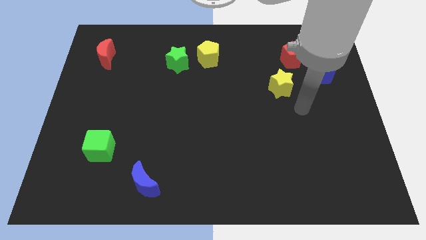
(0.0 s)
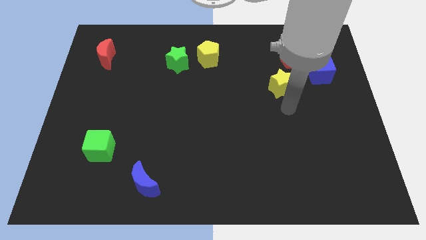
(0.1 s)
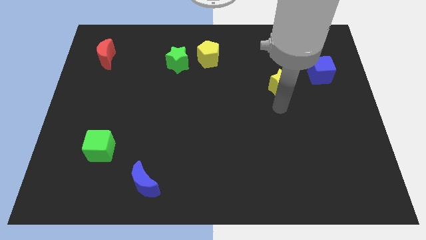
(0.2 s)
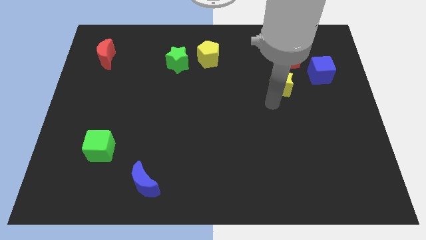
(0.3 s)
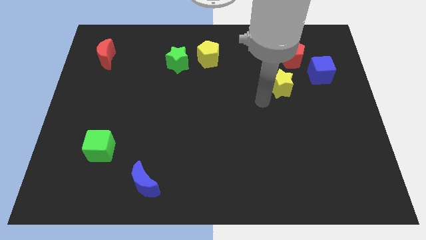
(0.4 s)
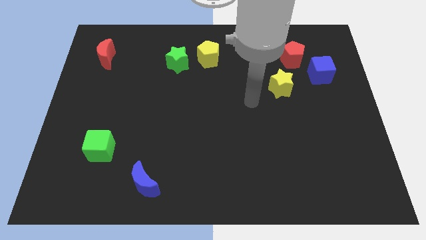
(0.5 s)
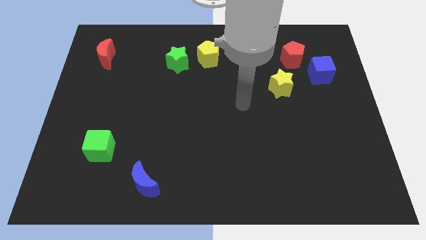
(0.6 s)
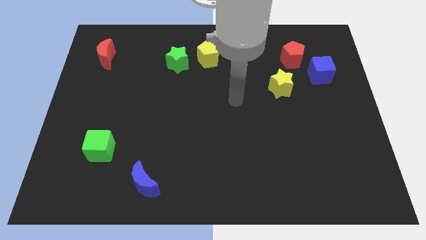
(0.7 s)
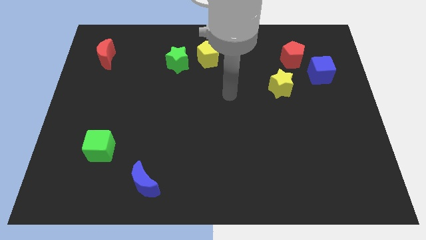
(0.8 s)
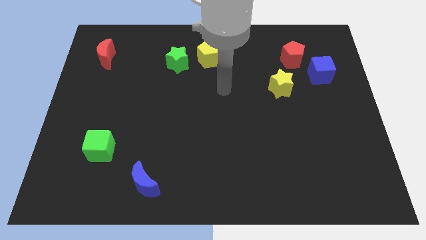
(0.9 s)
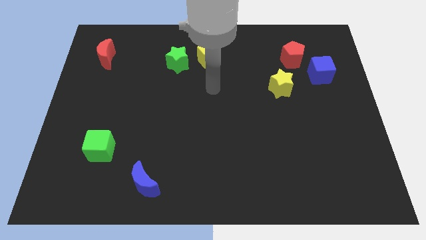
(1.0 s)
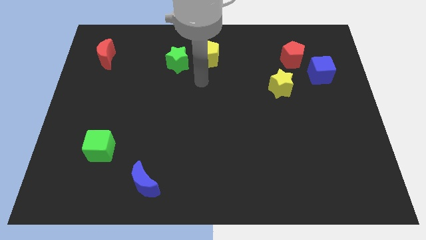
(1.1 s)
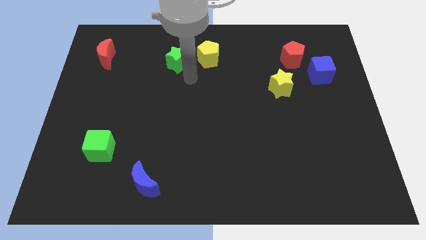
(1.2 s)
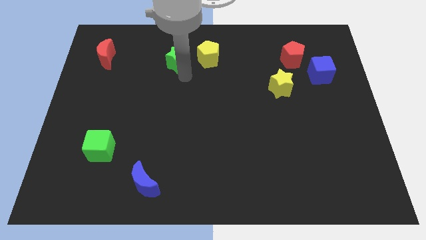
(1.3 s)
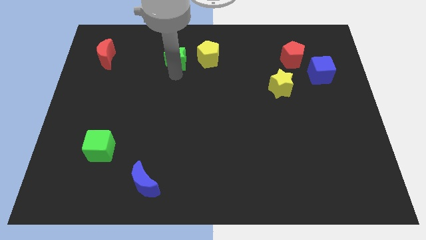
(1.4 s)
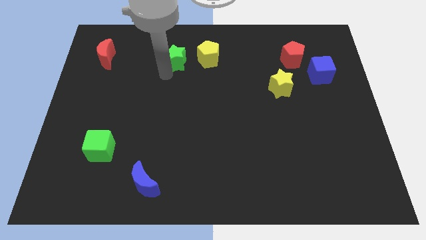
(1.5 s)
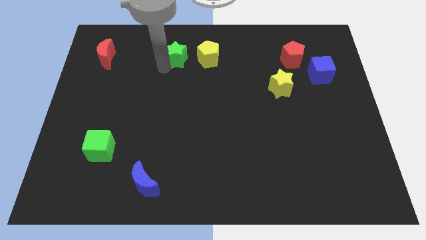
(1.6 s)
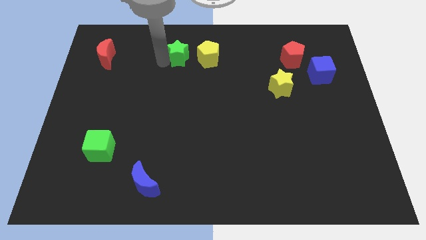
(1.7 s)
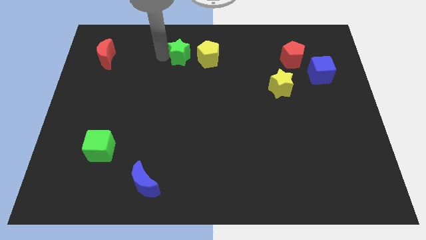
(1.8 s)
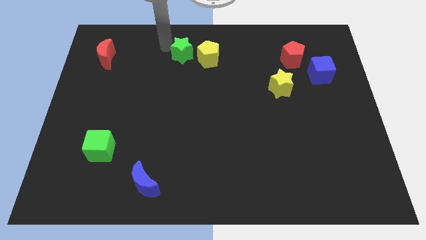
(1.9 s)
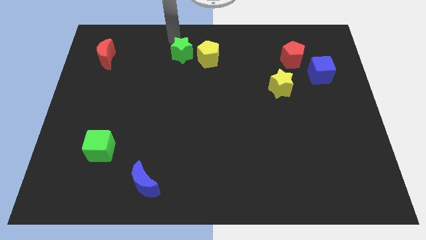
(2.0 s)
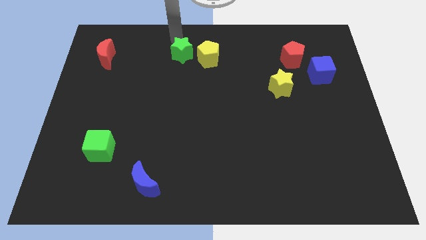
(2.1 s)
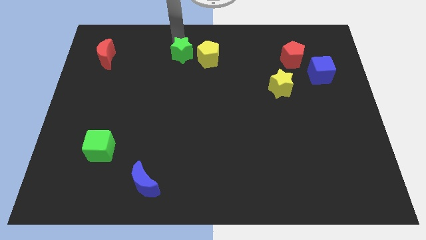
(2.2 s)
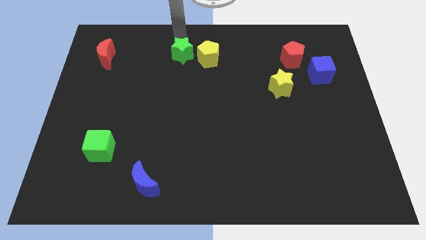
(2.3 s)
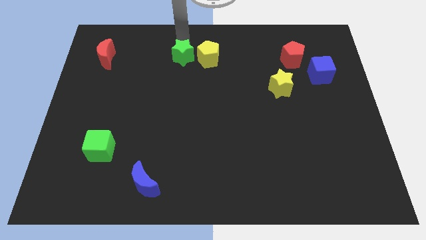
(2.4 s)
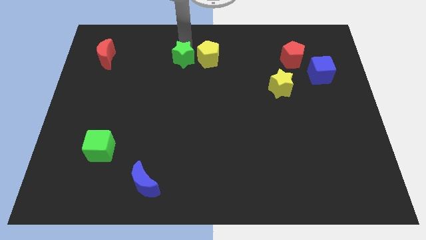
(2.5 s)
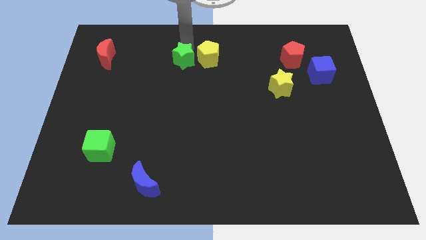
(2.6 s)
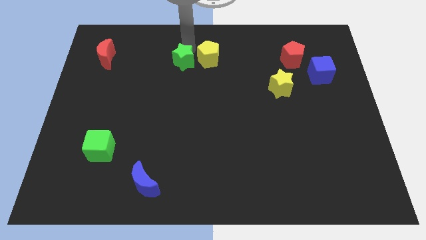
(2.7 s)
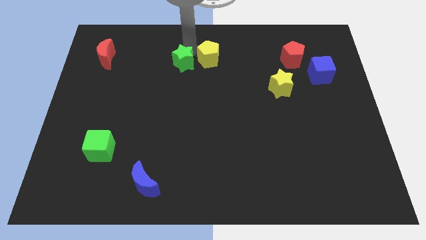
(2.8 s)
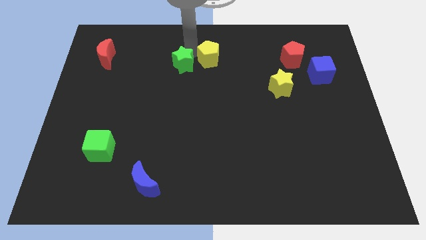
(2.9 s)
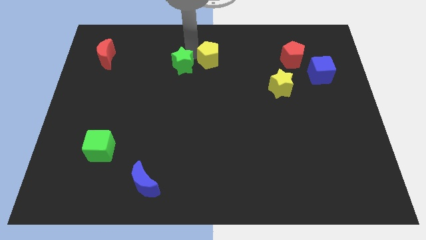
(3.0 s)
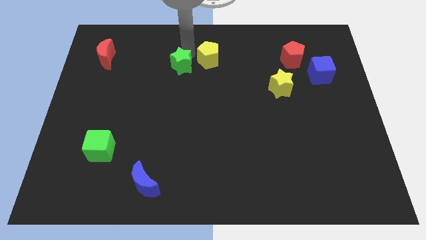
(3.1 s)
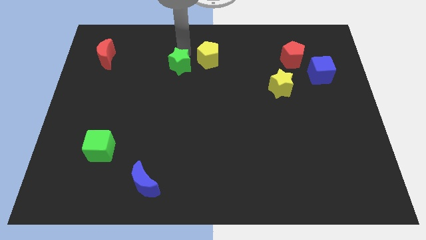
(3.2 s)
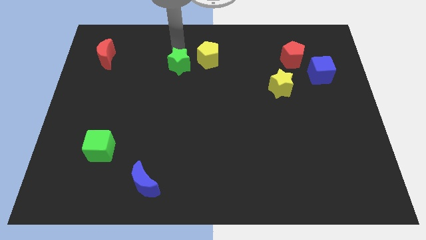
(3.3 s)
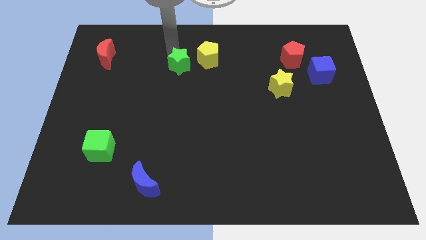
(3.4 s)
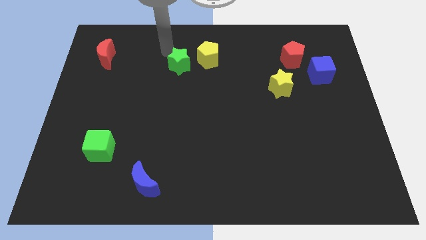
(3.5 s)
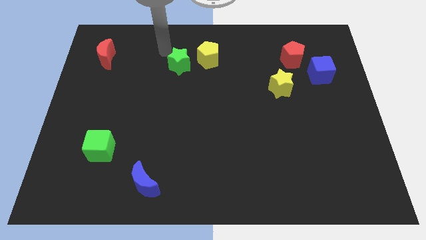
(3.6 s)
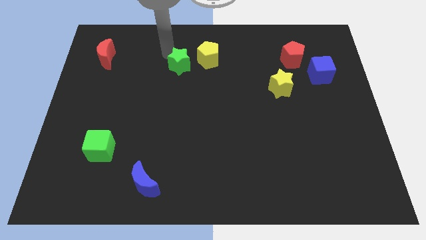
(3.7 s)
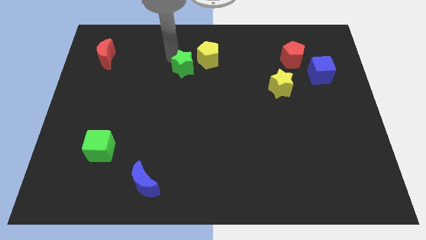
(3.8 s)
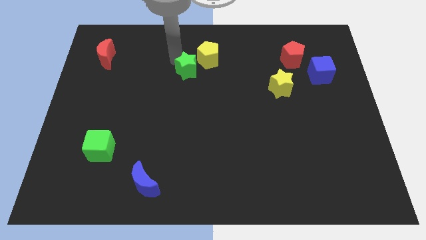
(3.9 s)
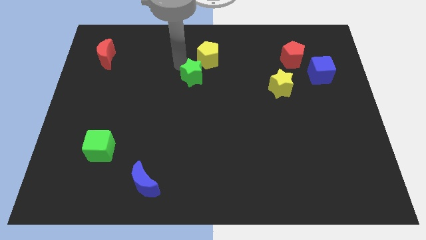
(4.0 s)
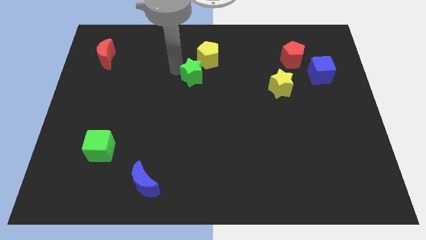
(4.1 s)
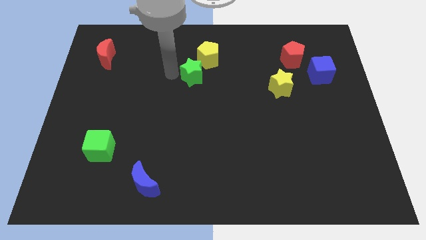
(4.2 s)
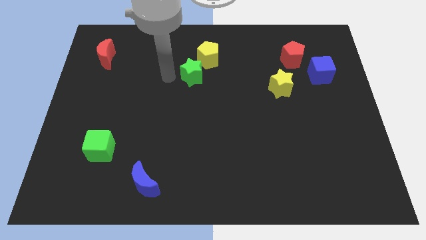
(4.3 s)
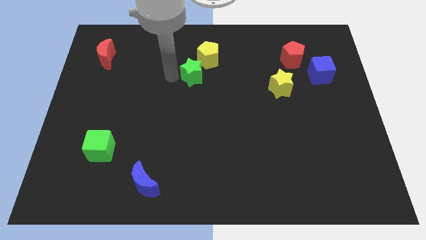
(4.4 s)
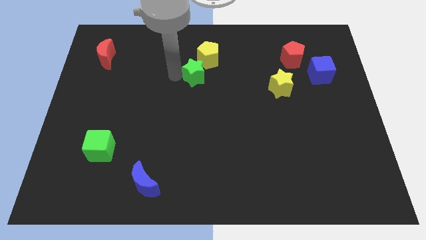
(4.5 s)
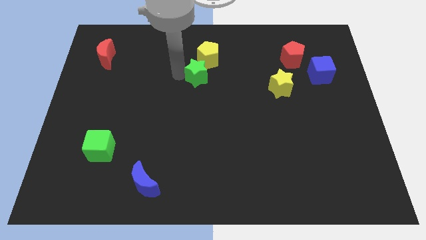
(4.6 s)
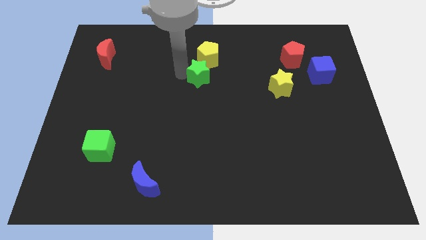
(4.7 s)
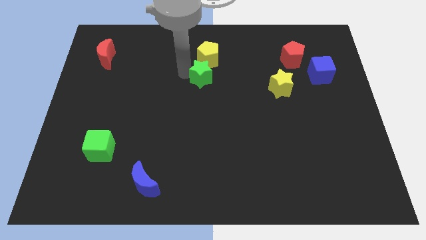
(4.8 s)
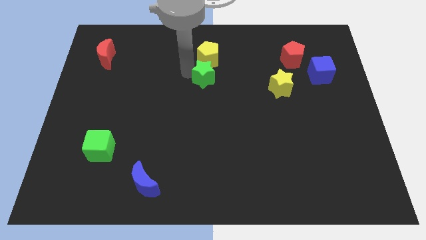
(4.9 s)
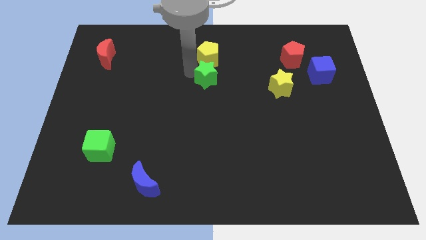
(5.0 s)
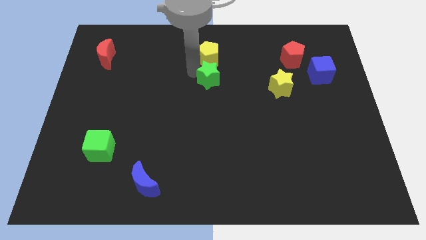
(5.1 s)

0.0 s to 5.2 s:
slide the green star right a little

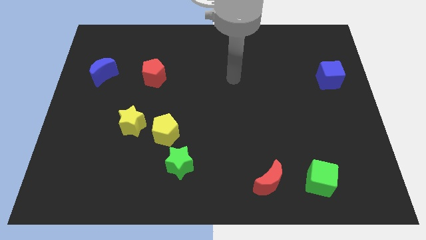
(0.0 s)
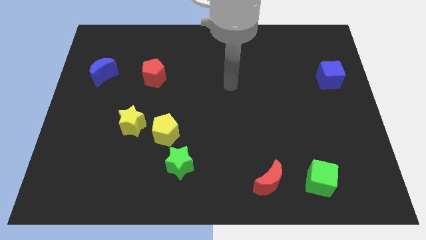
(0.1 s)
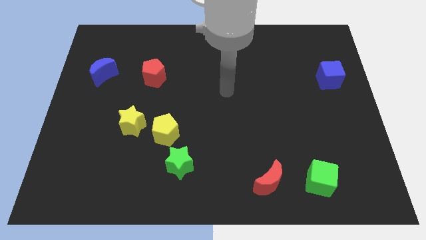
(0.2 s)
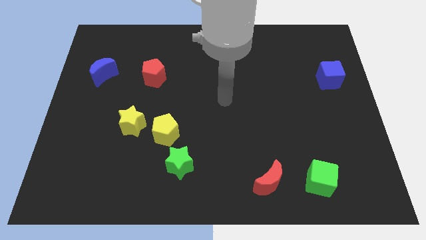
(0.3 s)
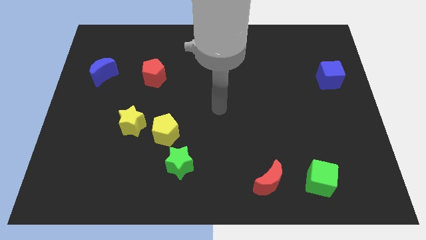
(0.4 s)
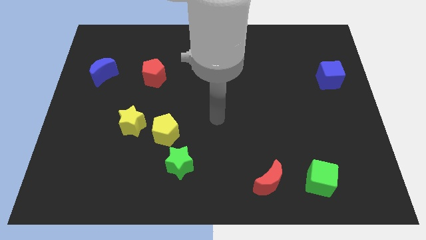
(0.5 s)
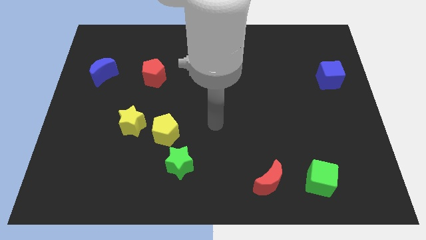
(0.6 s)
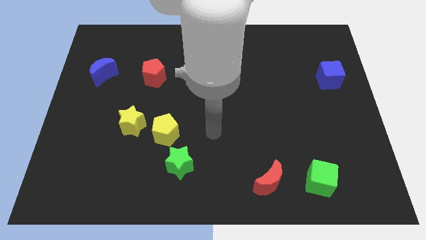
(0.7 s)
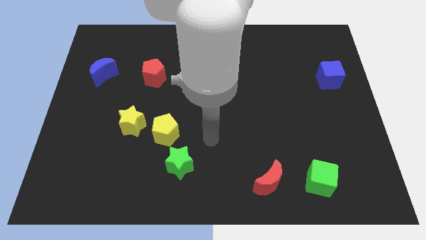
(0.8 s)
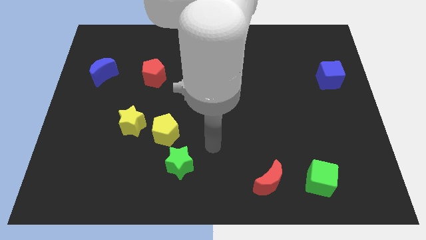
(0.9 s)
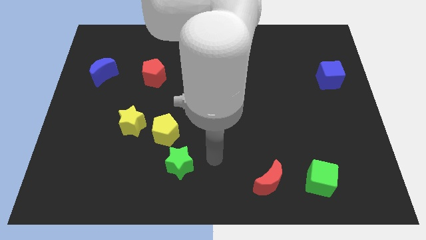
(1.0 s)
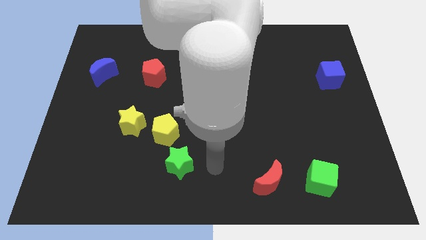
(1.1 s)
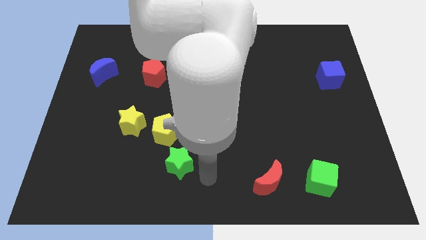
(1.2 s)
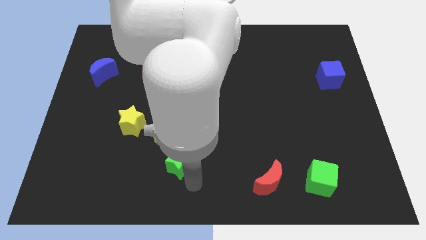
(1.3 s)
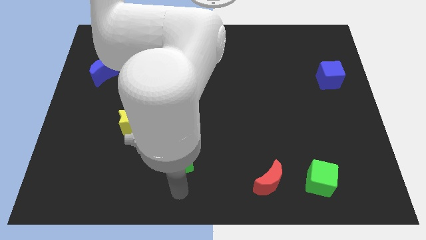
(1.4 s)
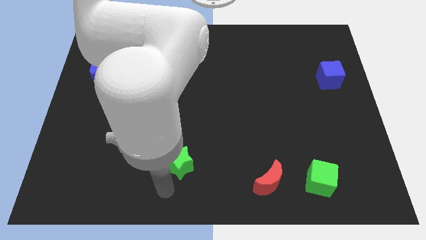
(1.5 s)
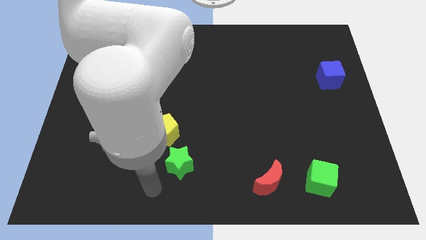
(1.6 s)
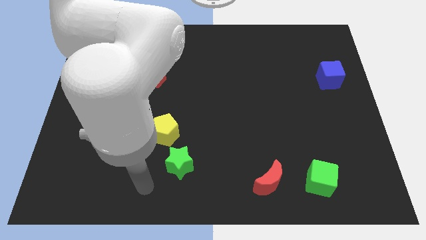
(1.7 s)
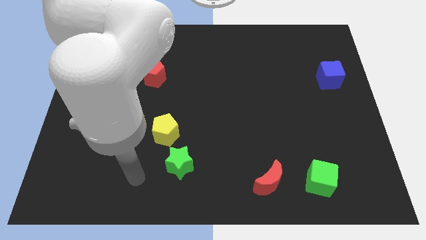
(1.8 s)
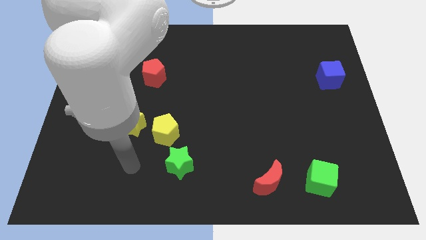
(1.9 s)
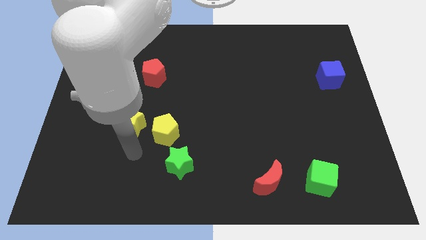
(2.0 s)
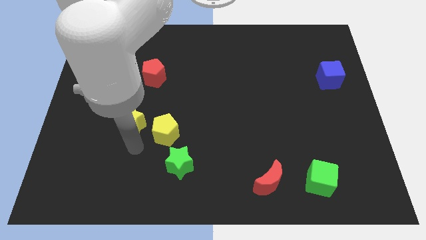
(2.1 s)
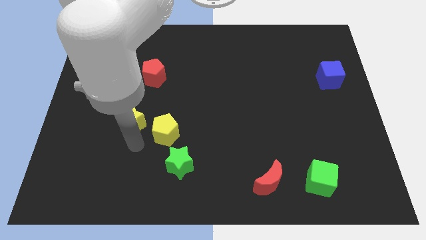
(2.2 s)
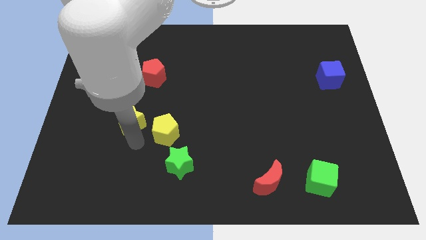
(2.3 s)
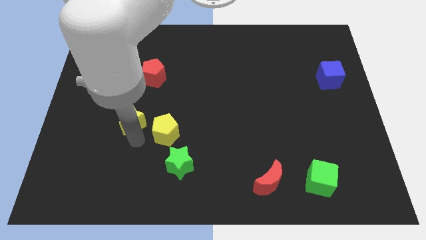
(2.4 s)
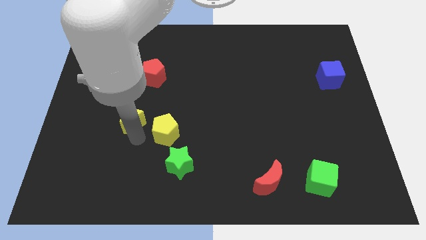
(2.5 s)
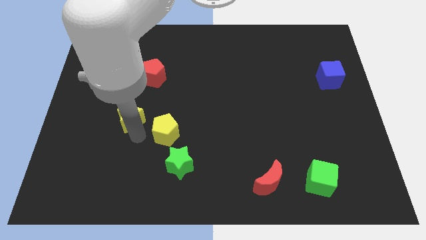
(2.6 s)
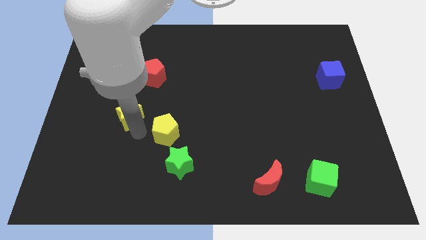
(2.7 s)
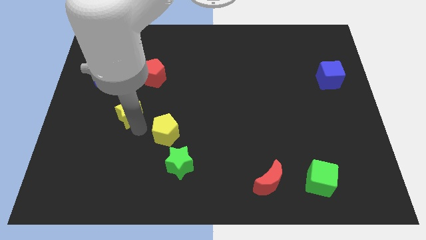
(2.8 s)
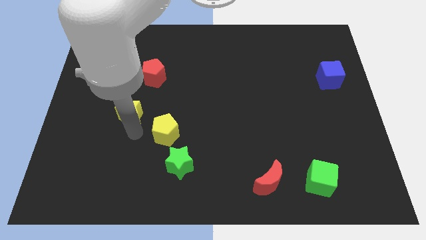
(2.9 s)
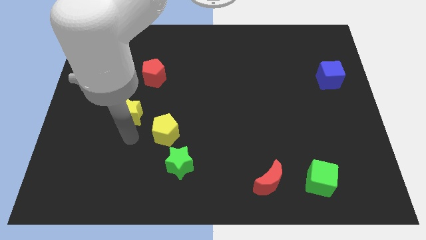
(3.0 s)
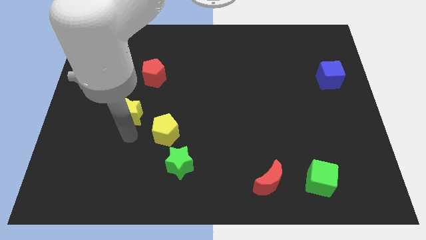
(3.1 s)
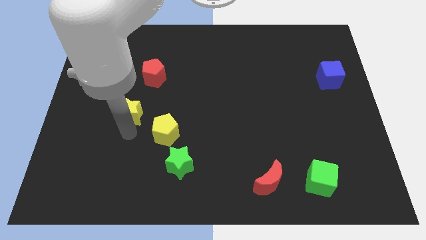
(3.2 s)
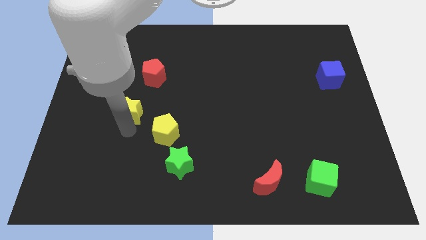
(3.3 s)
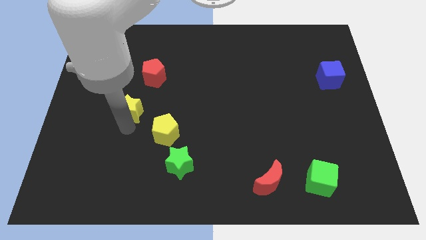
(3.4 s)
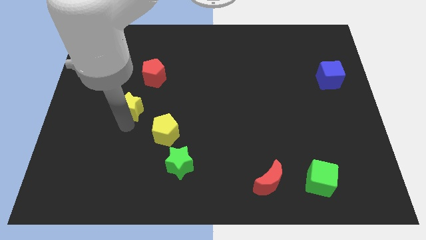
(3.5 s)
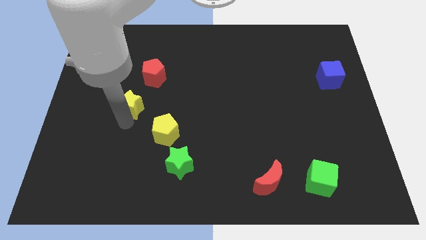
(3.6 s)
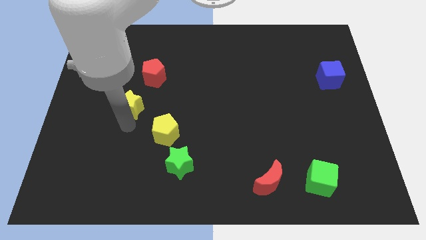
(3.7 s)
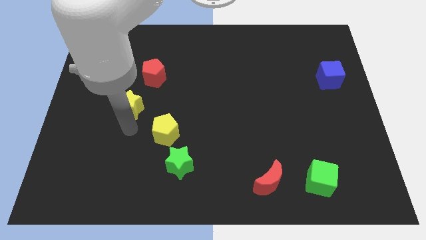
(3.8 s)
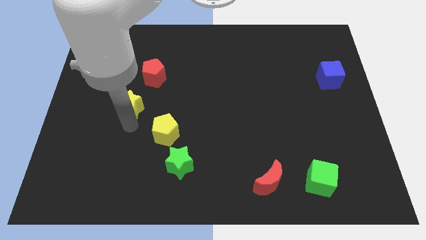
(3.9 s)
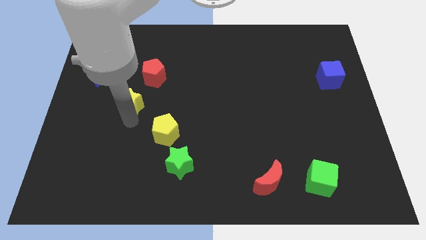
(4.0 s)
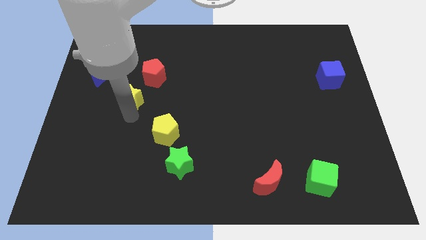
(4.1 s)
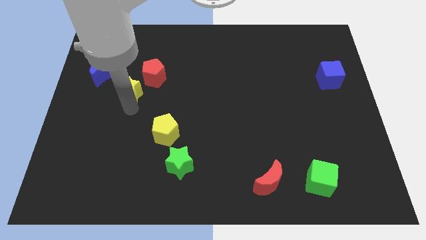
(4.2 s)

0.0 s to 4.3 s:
slide the yellow star a little bit upwards
